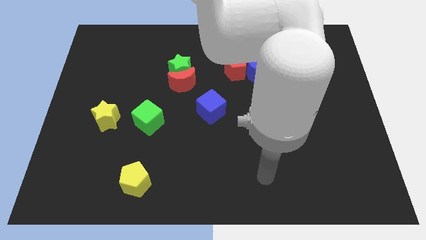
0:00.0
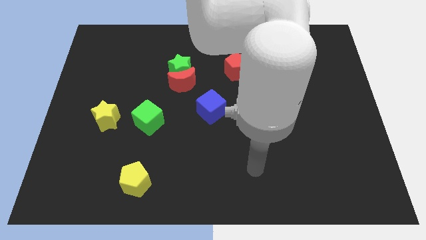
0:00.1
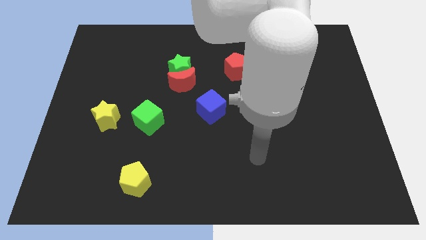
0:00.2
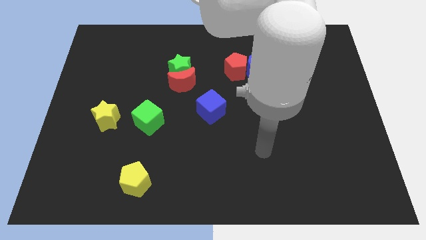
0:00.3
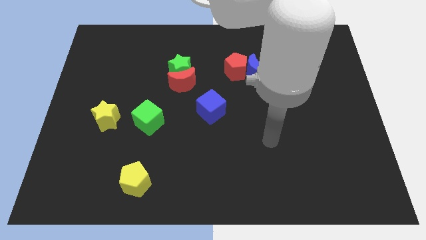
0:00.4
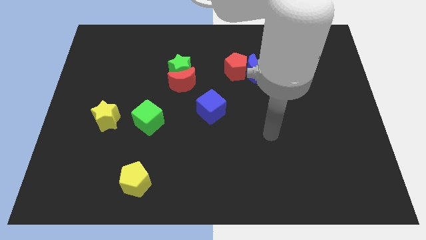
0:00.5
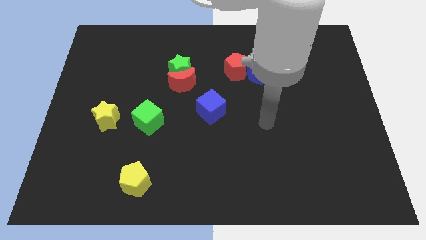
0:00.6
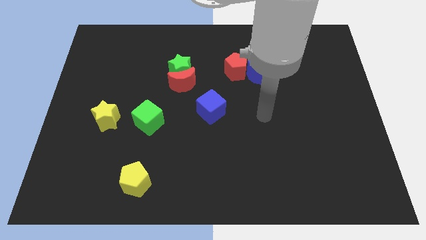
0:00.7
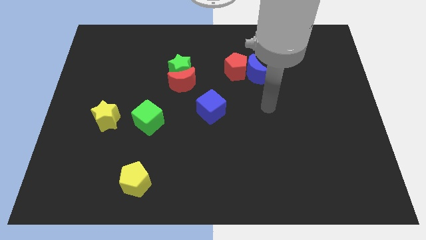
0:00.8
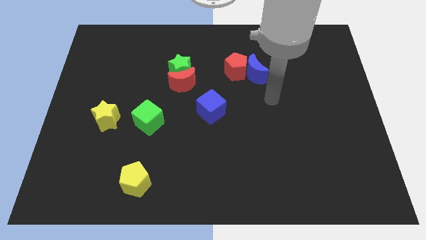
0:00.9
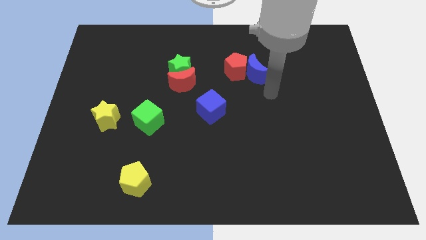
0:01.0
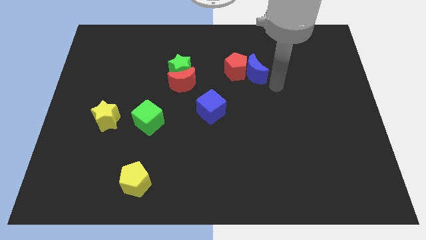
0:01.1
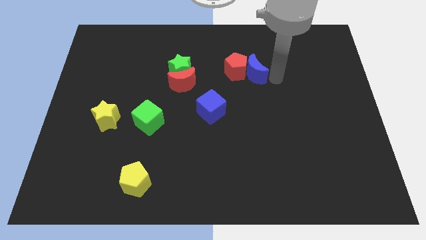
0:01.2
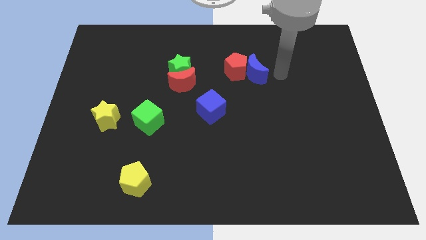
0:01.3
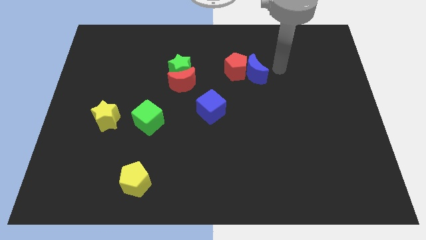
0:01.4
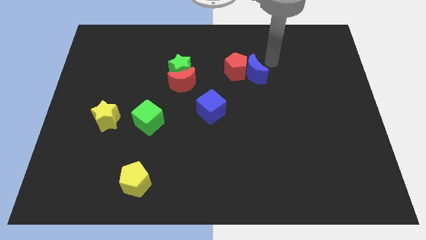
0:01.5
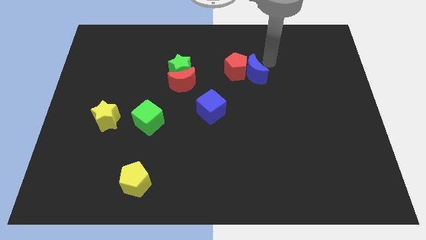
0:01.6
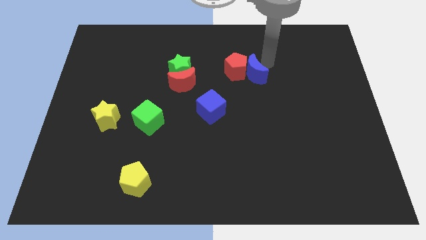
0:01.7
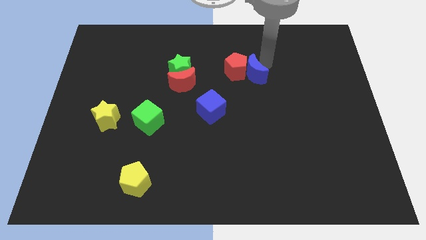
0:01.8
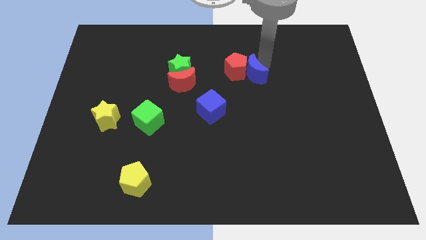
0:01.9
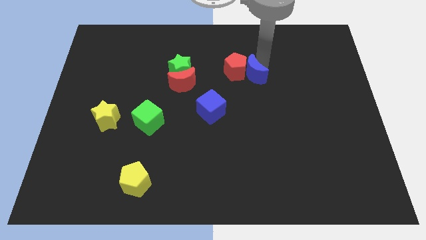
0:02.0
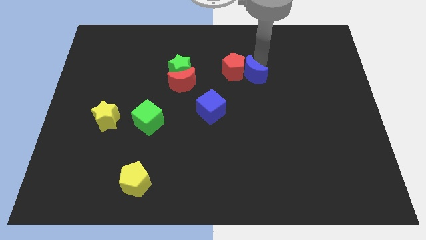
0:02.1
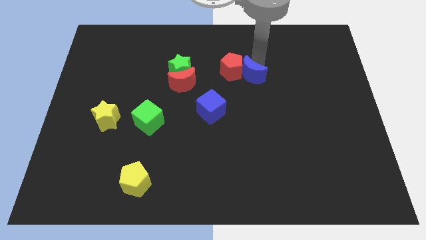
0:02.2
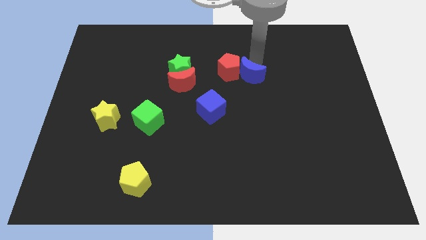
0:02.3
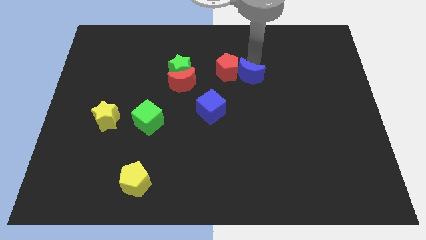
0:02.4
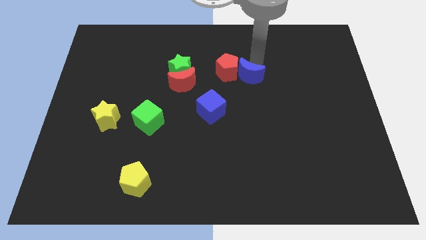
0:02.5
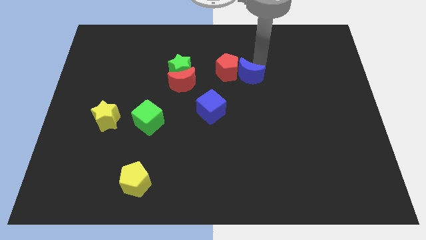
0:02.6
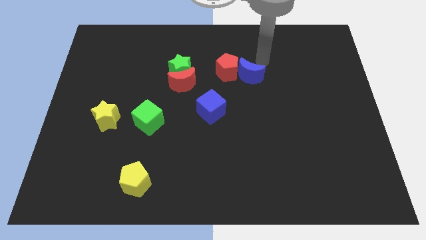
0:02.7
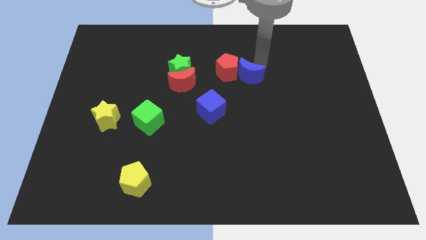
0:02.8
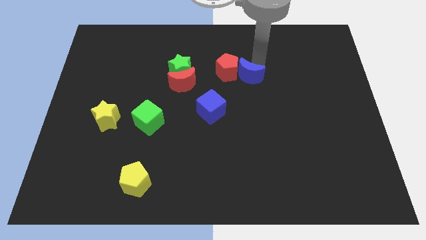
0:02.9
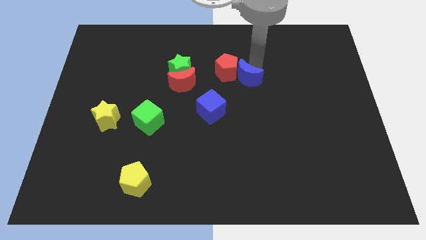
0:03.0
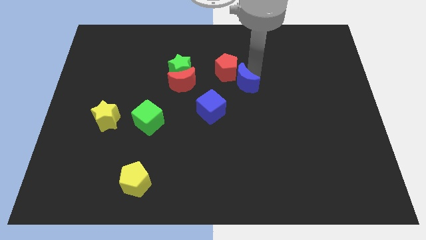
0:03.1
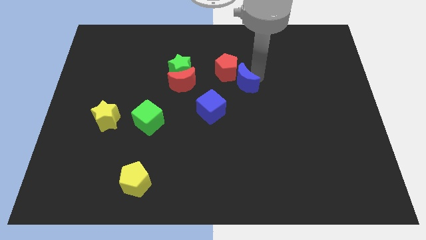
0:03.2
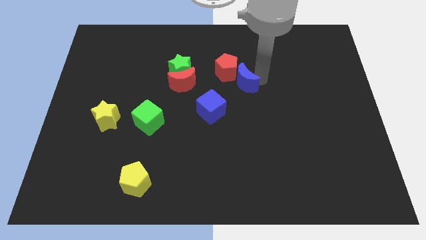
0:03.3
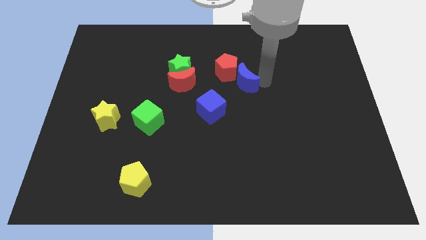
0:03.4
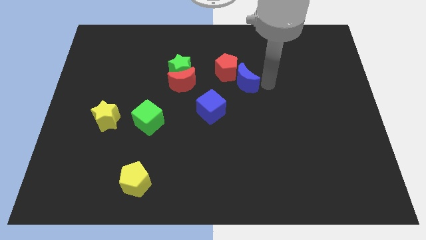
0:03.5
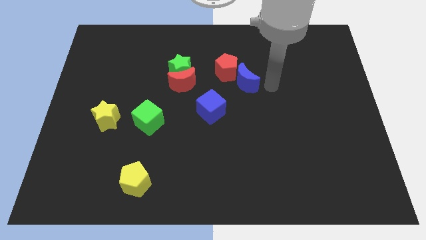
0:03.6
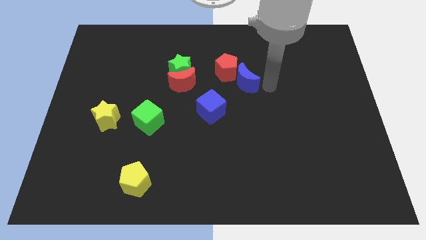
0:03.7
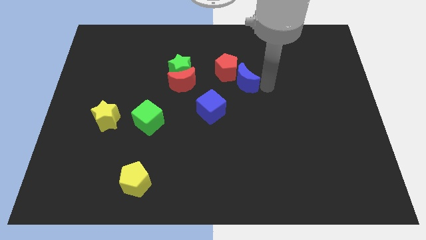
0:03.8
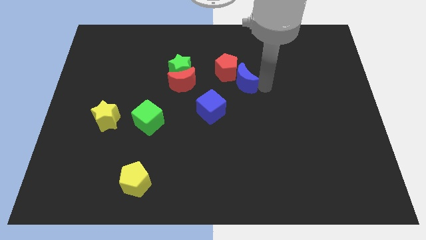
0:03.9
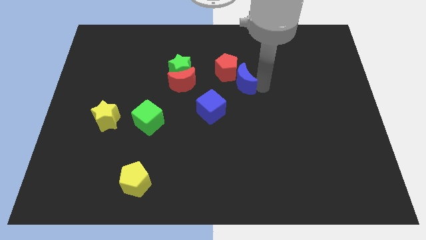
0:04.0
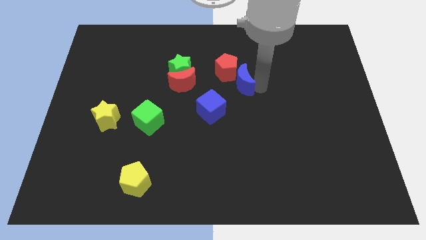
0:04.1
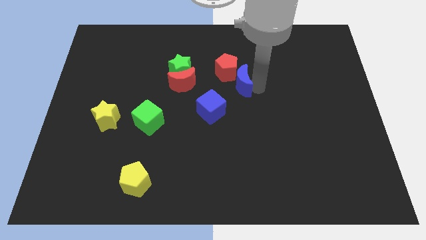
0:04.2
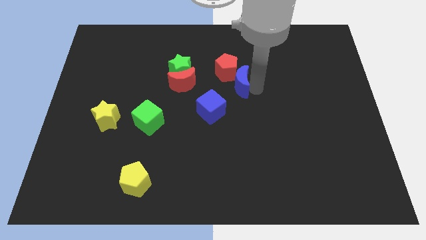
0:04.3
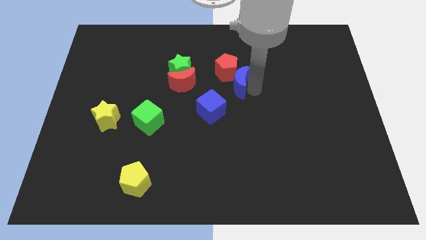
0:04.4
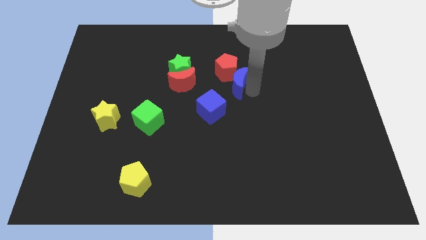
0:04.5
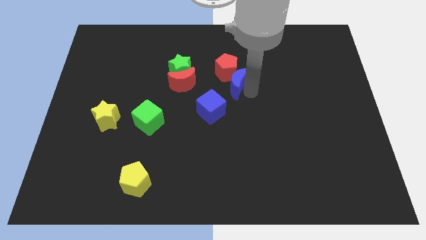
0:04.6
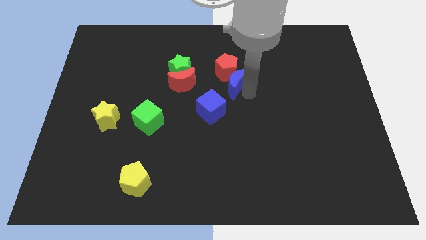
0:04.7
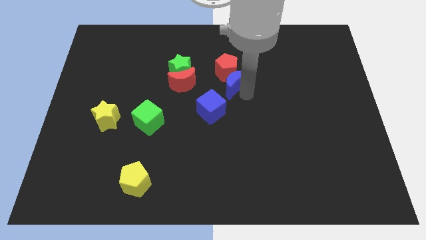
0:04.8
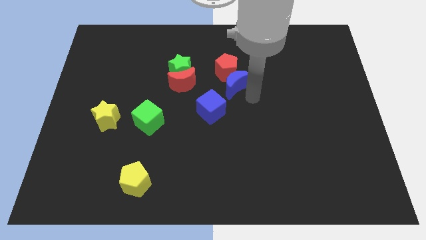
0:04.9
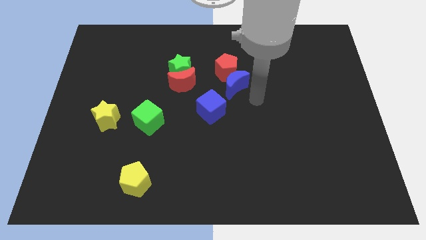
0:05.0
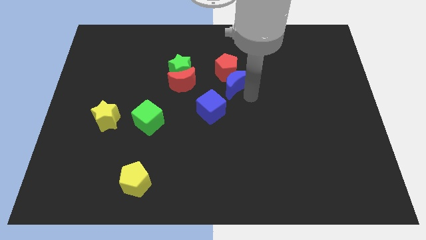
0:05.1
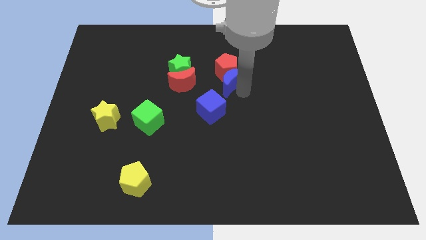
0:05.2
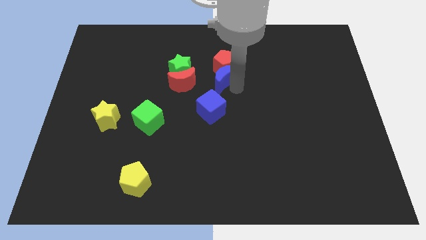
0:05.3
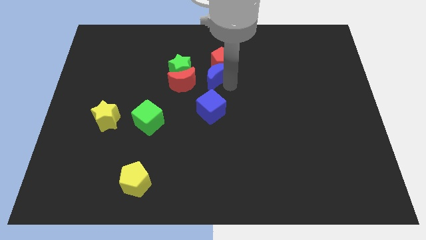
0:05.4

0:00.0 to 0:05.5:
slide the blue moon to the top right side of the red moon

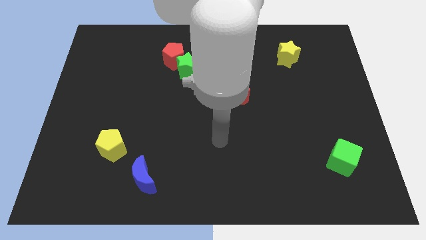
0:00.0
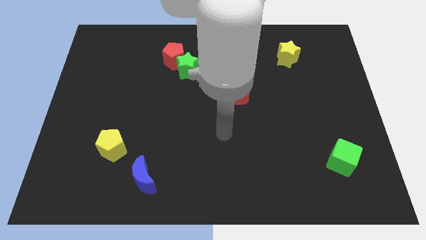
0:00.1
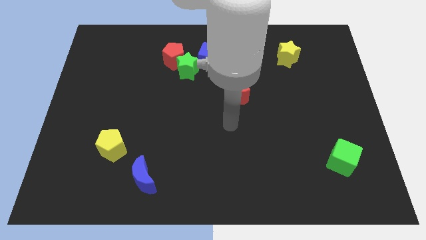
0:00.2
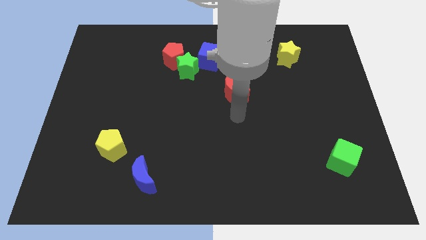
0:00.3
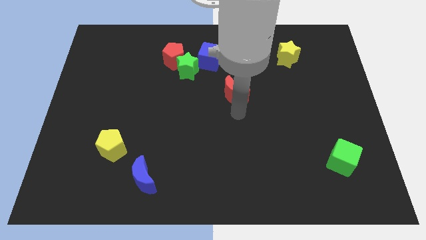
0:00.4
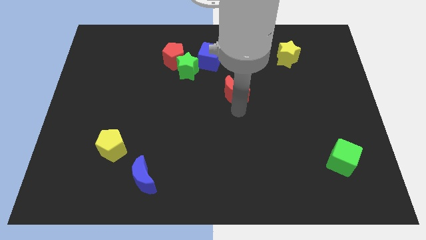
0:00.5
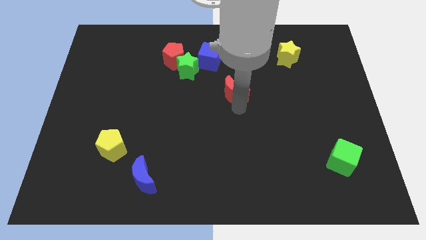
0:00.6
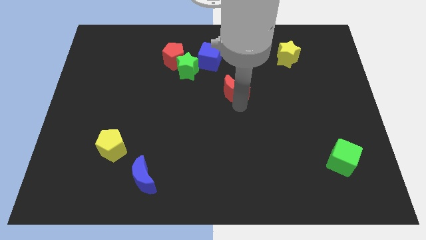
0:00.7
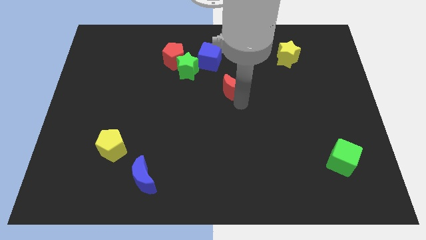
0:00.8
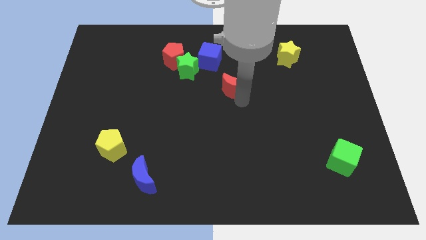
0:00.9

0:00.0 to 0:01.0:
move the red moon to the bottom right side of the blue cube
